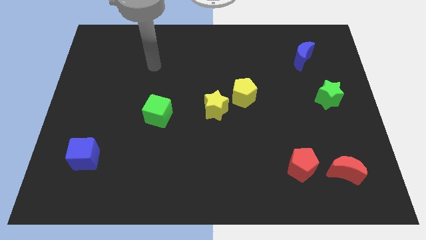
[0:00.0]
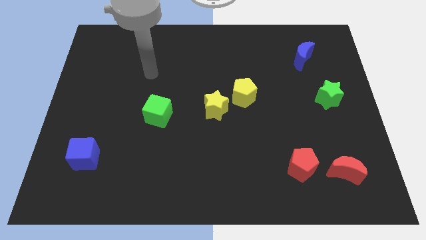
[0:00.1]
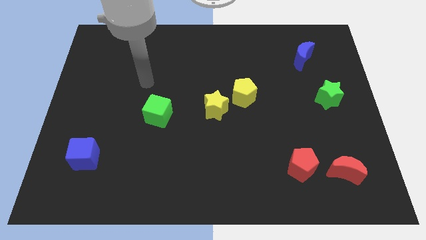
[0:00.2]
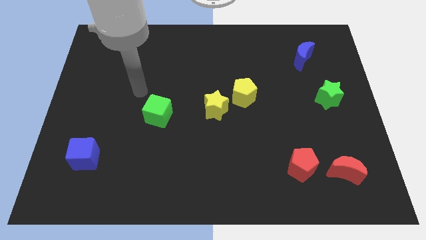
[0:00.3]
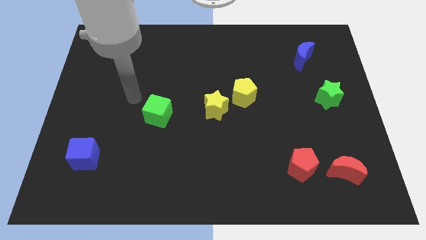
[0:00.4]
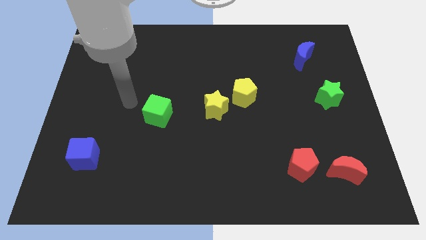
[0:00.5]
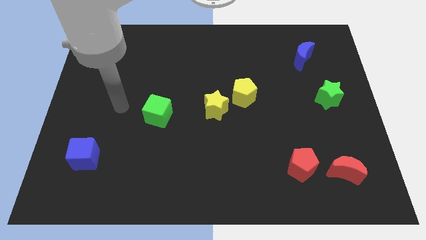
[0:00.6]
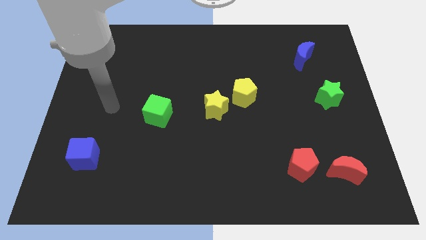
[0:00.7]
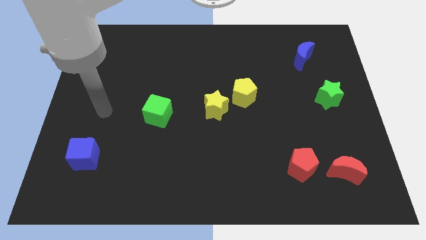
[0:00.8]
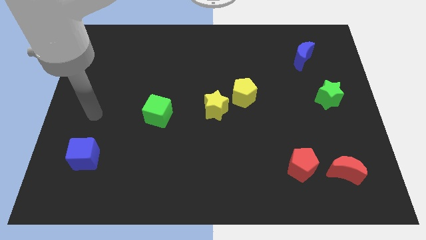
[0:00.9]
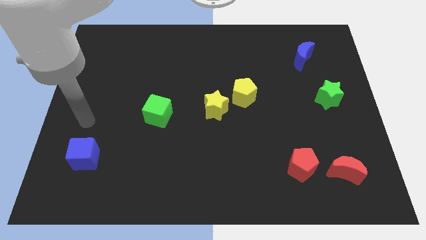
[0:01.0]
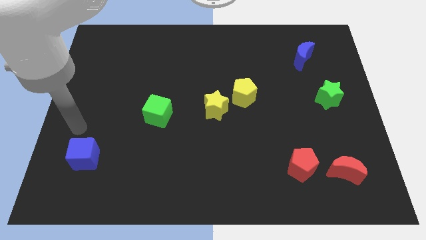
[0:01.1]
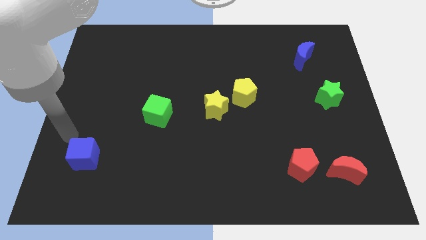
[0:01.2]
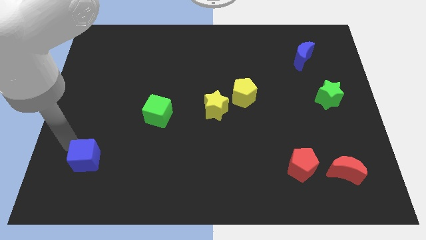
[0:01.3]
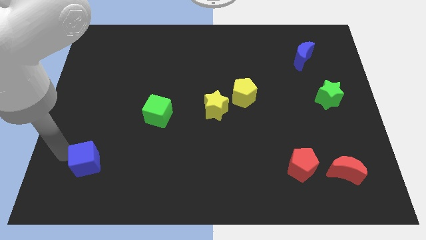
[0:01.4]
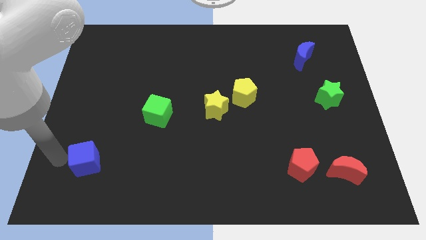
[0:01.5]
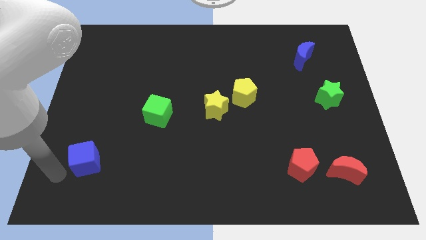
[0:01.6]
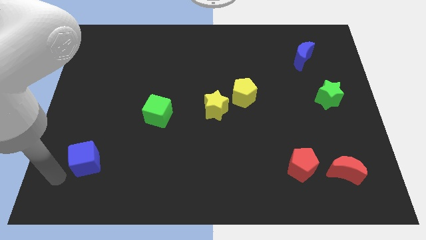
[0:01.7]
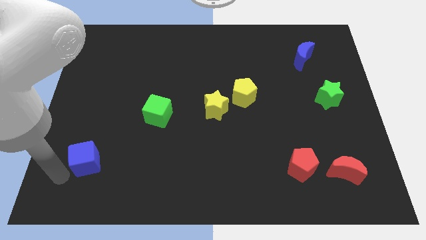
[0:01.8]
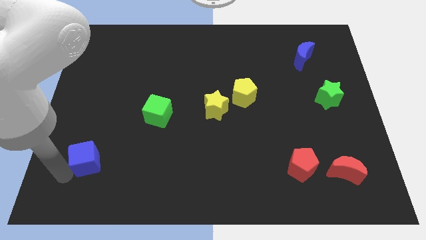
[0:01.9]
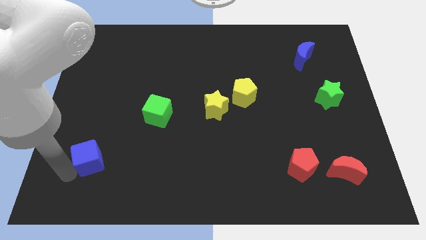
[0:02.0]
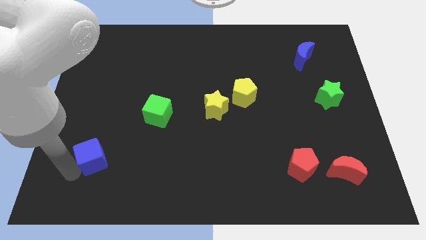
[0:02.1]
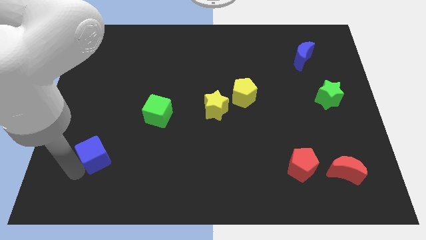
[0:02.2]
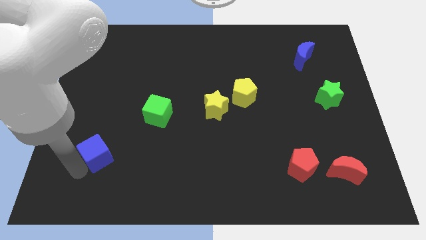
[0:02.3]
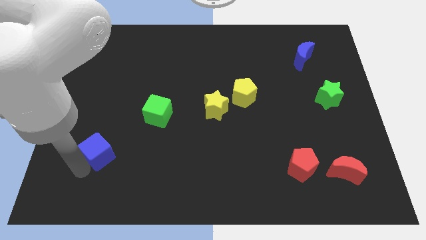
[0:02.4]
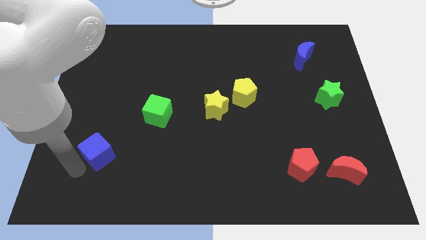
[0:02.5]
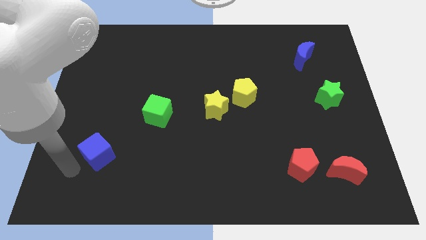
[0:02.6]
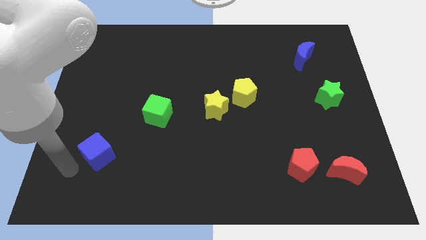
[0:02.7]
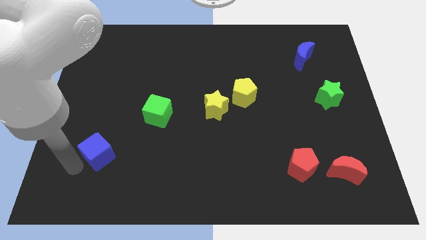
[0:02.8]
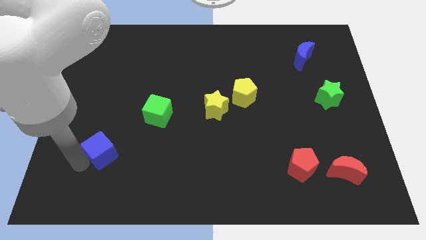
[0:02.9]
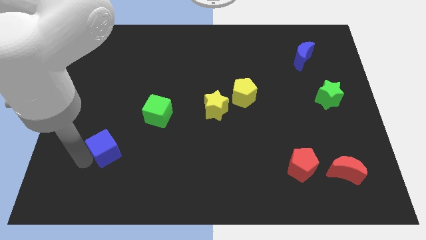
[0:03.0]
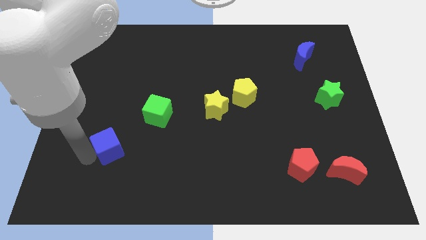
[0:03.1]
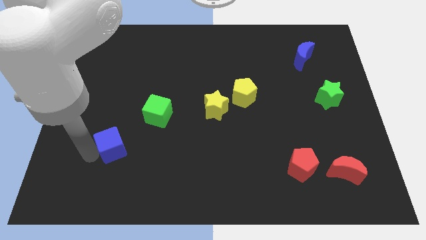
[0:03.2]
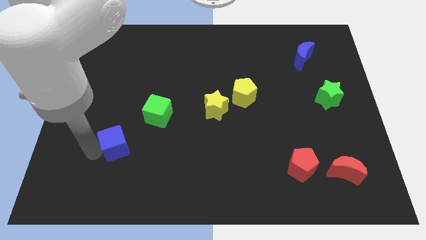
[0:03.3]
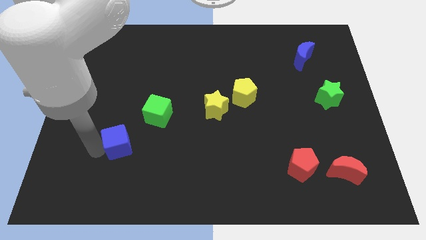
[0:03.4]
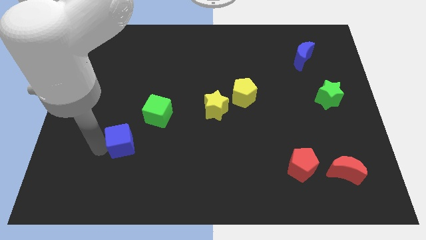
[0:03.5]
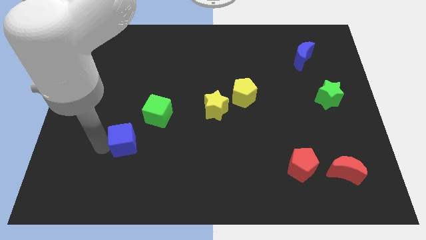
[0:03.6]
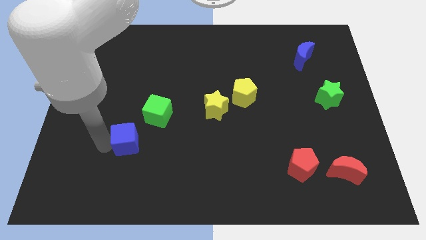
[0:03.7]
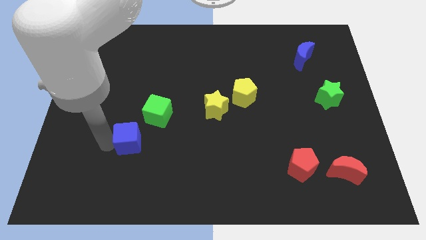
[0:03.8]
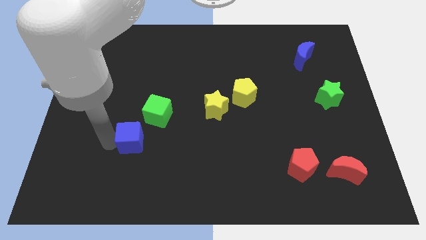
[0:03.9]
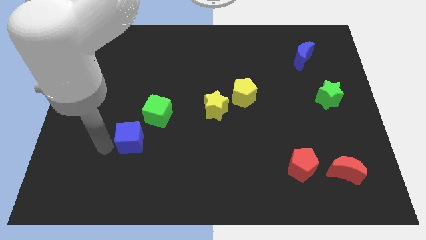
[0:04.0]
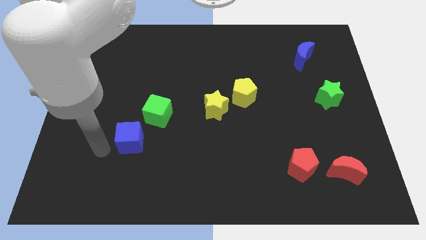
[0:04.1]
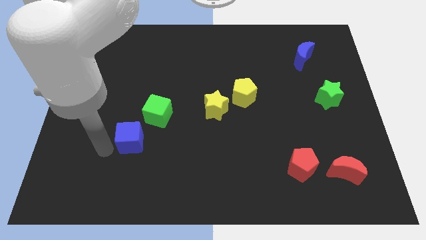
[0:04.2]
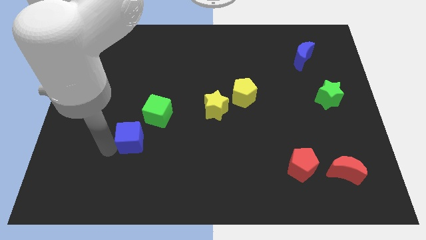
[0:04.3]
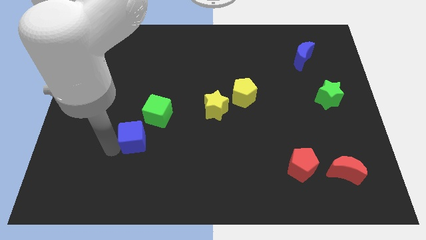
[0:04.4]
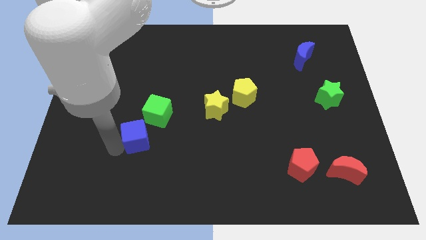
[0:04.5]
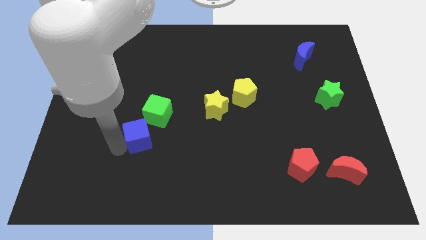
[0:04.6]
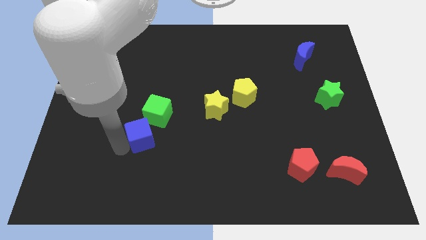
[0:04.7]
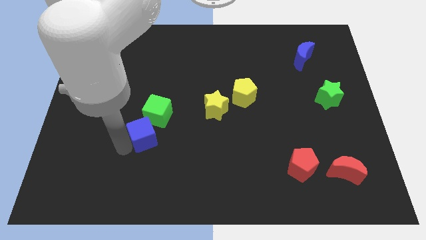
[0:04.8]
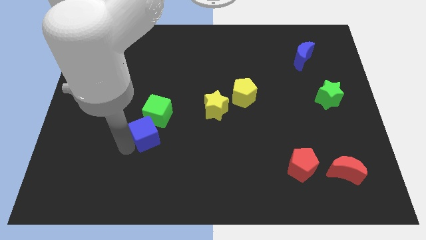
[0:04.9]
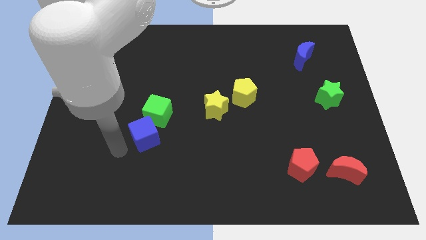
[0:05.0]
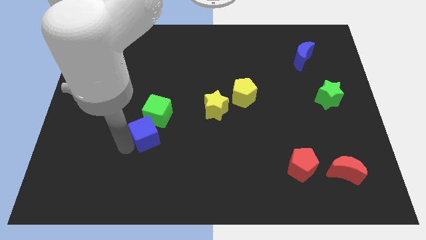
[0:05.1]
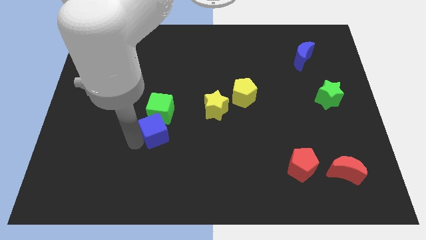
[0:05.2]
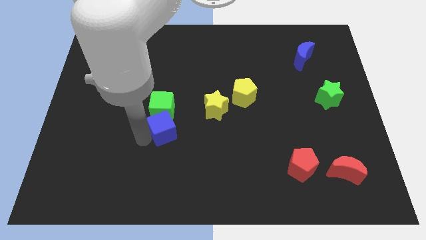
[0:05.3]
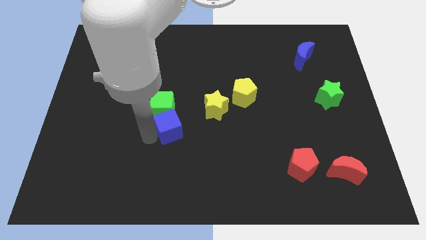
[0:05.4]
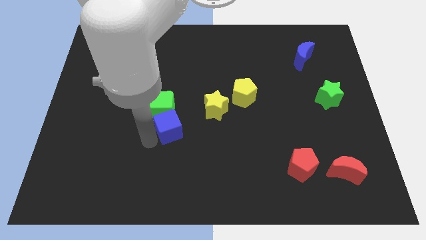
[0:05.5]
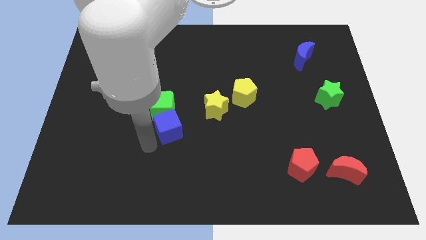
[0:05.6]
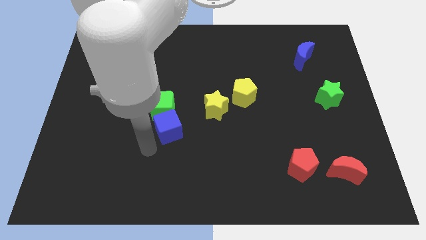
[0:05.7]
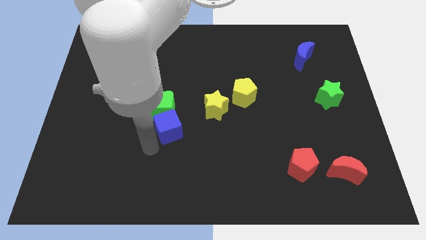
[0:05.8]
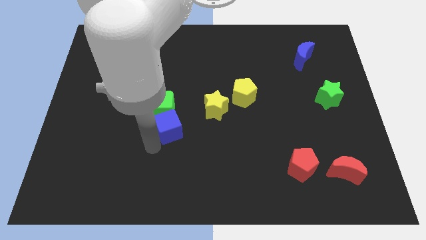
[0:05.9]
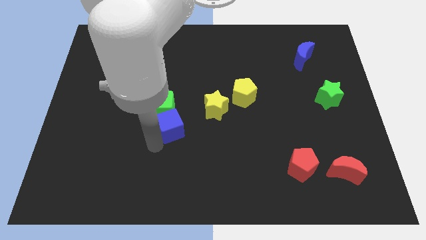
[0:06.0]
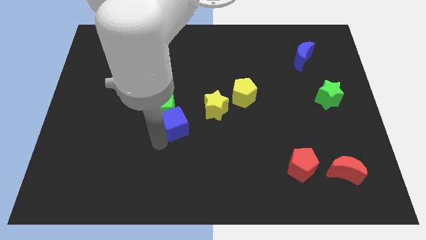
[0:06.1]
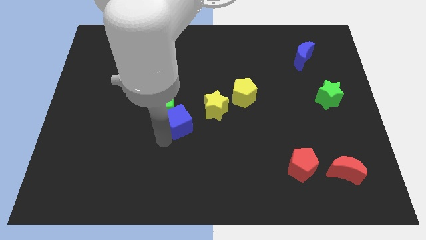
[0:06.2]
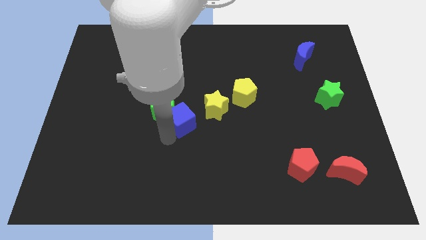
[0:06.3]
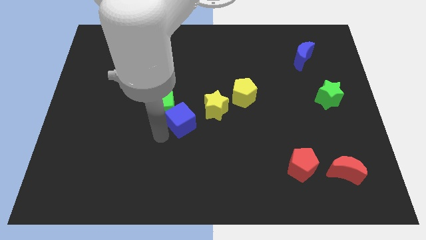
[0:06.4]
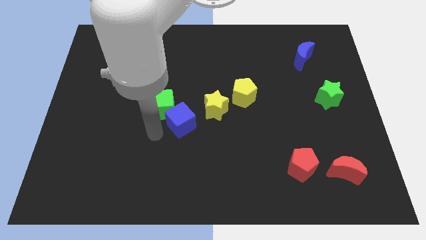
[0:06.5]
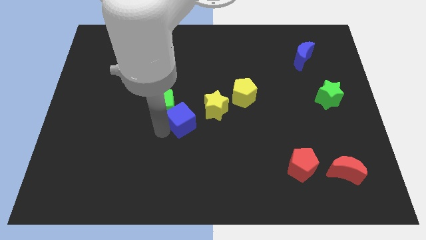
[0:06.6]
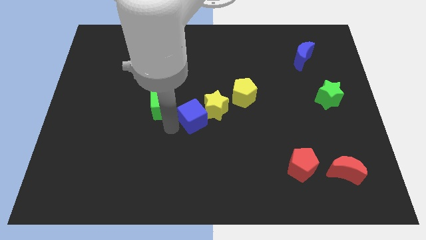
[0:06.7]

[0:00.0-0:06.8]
move the blue cube towards the yellow star
